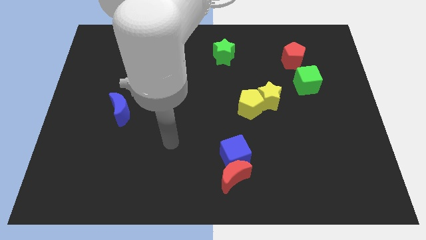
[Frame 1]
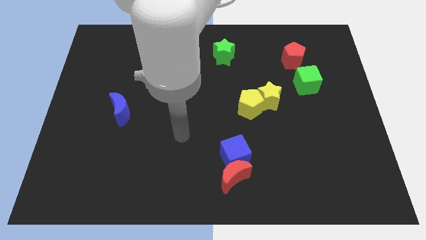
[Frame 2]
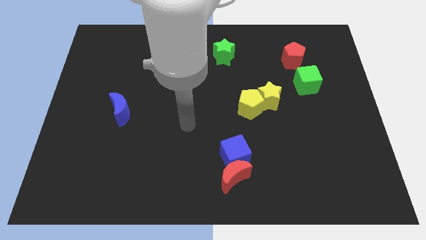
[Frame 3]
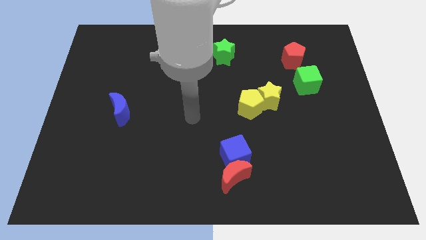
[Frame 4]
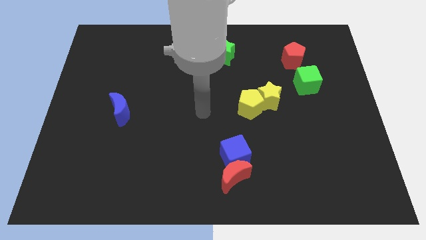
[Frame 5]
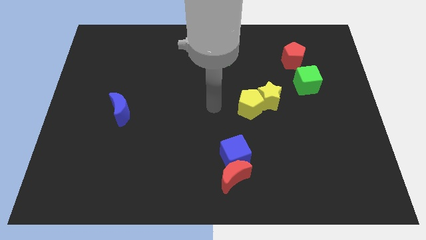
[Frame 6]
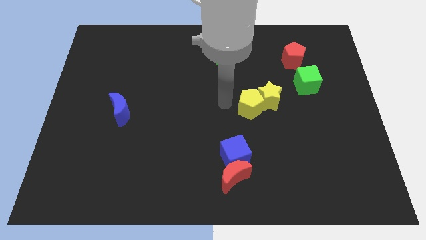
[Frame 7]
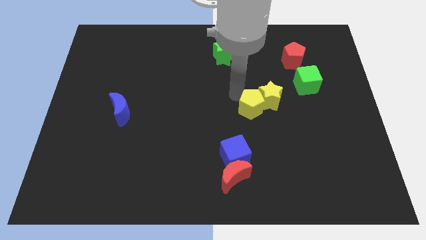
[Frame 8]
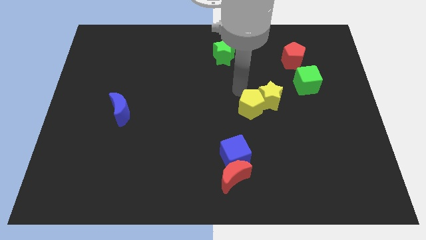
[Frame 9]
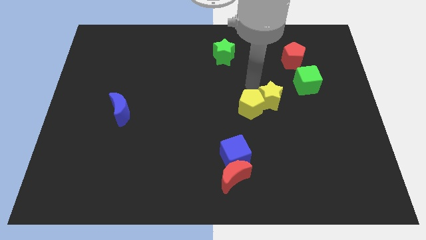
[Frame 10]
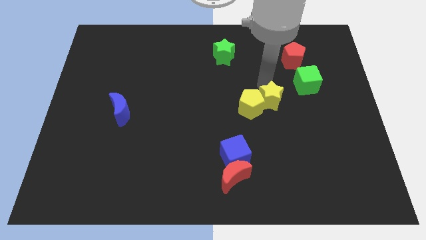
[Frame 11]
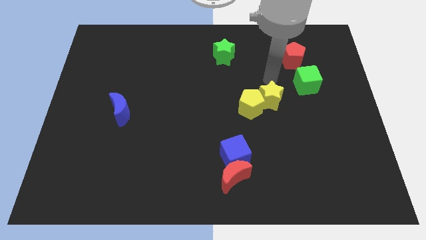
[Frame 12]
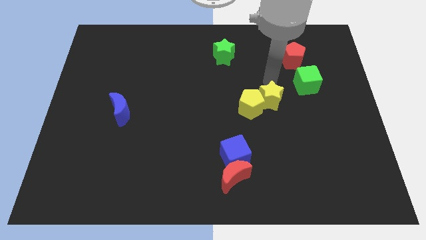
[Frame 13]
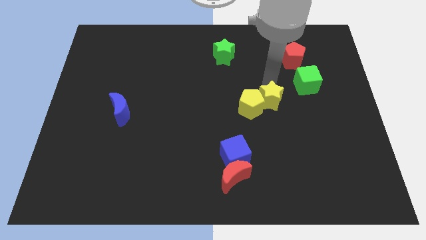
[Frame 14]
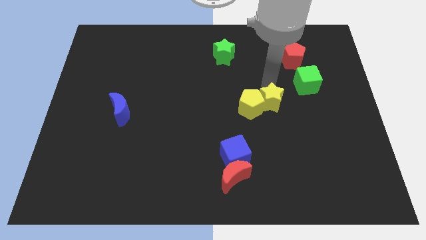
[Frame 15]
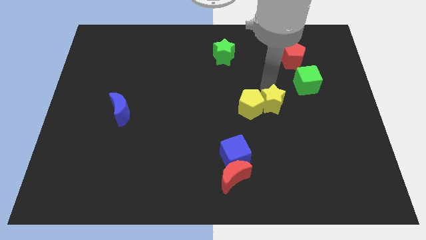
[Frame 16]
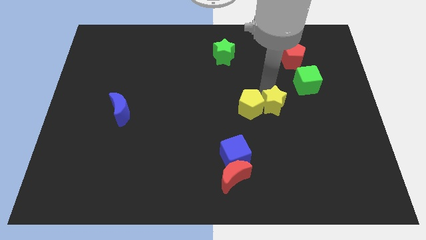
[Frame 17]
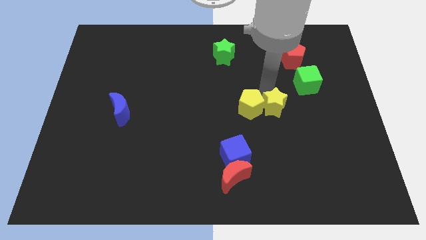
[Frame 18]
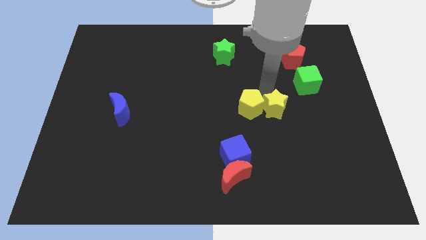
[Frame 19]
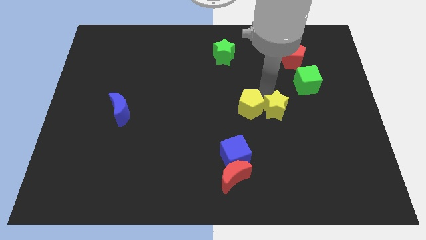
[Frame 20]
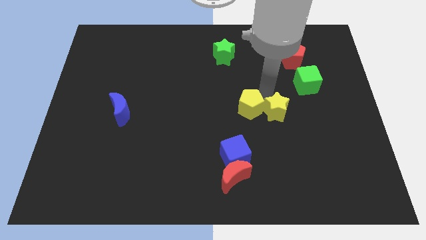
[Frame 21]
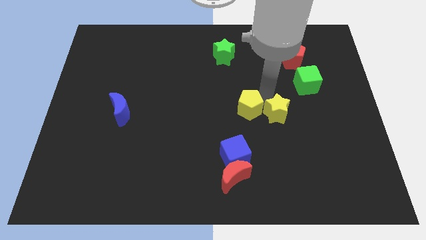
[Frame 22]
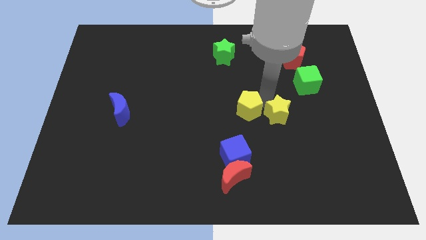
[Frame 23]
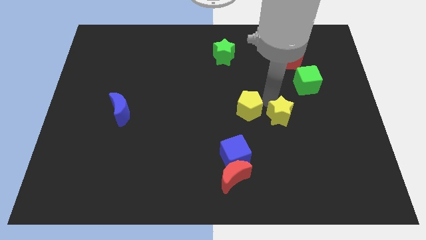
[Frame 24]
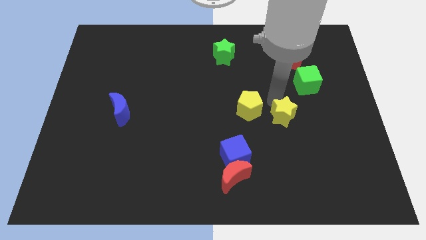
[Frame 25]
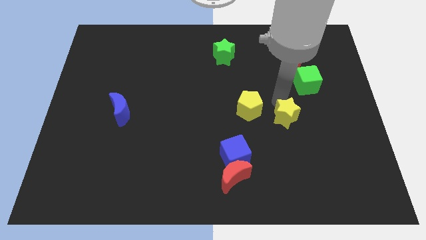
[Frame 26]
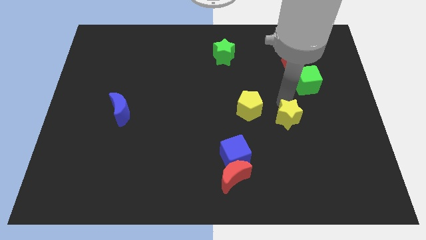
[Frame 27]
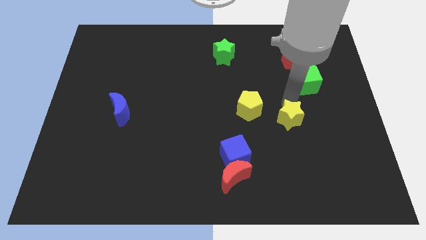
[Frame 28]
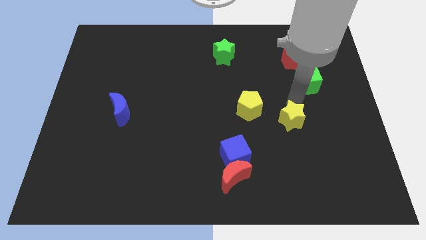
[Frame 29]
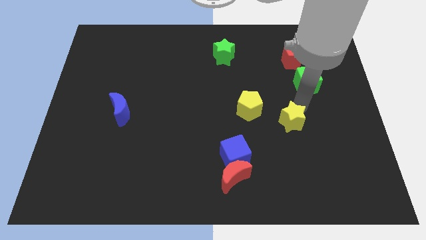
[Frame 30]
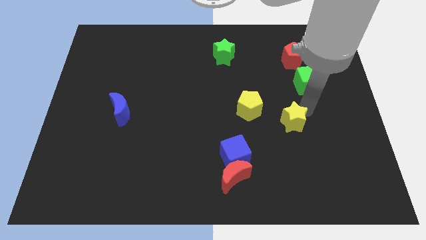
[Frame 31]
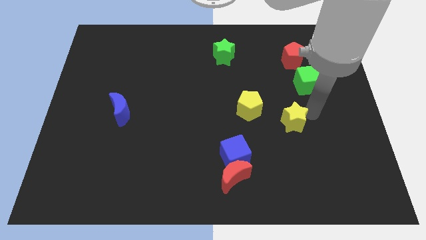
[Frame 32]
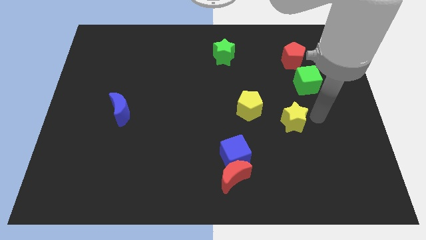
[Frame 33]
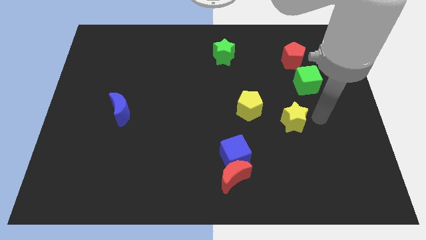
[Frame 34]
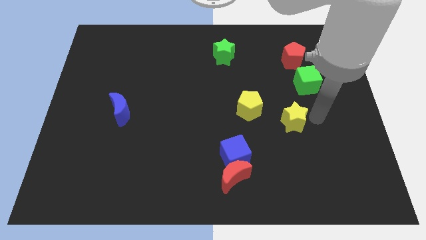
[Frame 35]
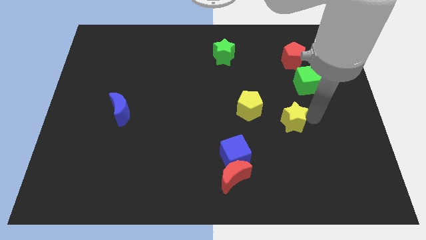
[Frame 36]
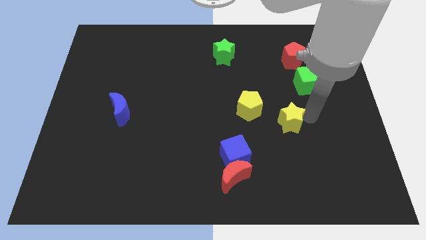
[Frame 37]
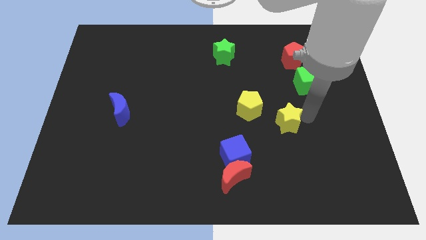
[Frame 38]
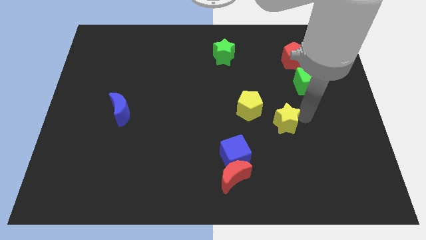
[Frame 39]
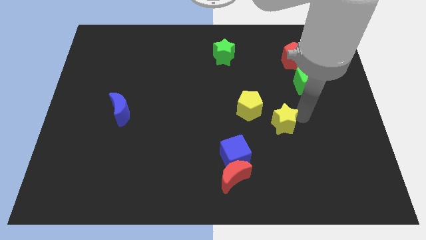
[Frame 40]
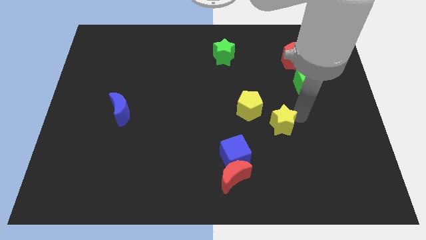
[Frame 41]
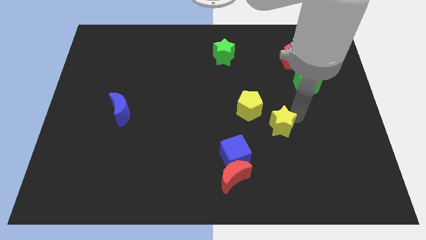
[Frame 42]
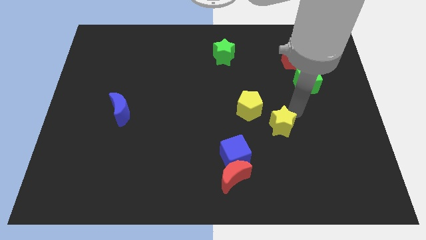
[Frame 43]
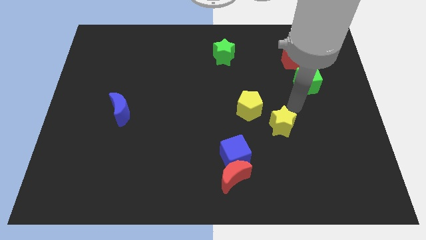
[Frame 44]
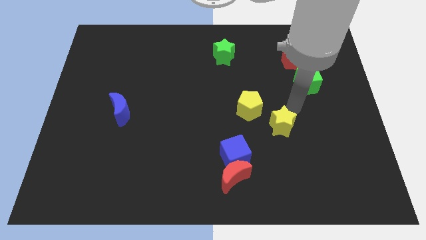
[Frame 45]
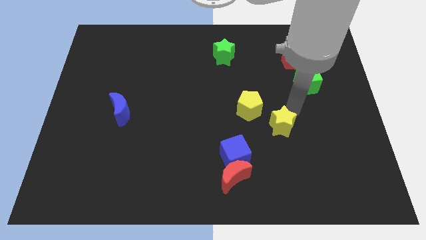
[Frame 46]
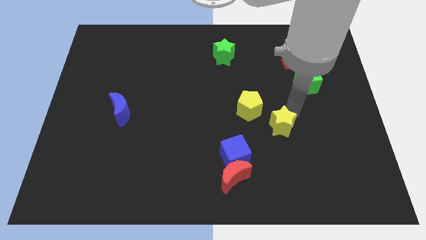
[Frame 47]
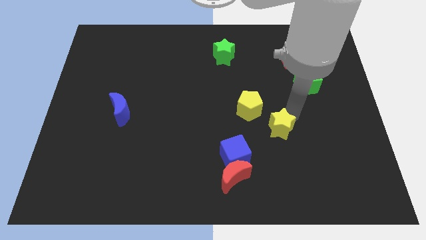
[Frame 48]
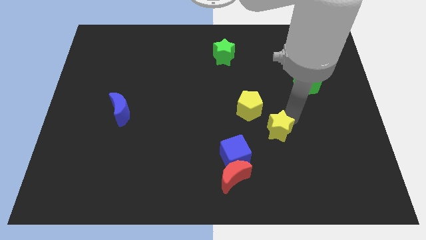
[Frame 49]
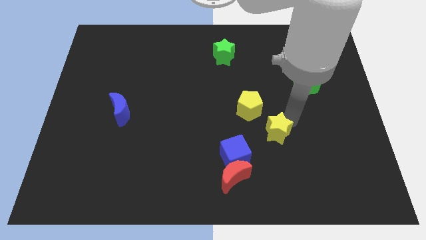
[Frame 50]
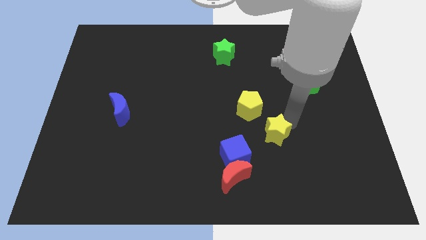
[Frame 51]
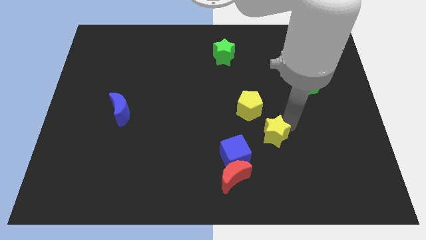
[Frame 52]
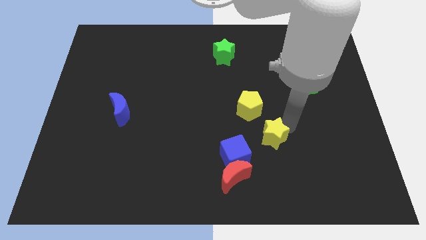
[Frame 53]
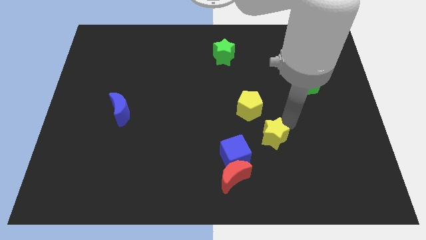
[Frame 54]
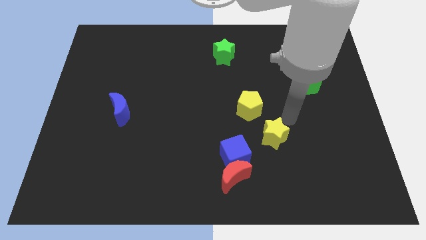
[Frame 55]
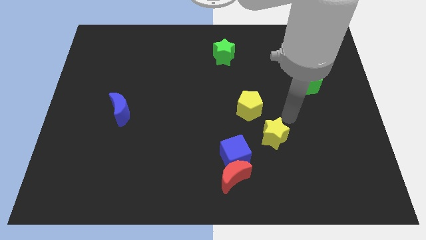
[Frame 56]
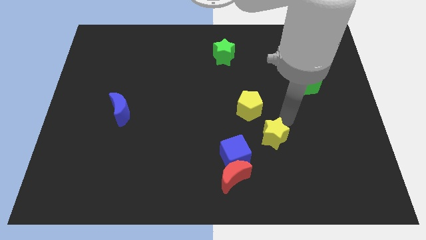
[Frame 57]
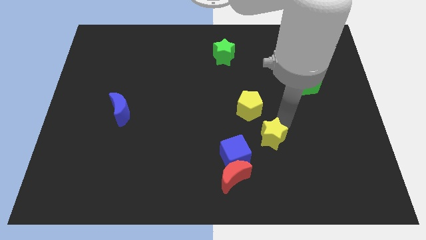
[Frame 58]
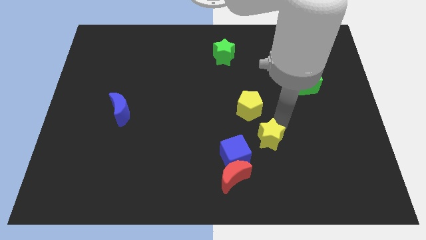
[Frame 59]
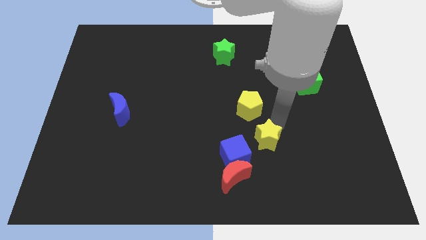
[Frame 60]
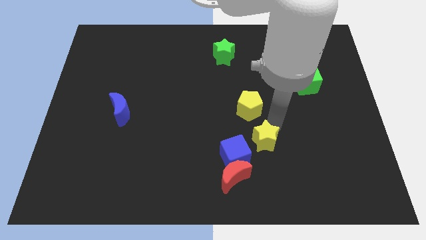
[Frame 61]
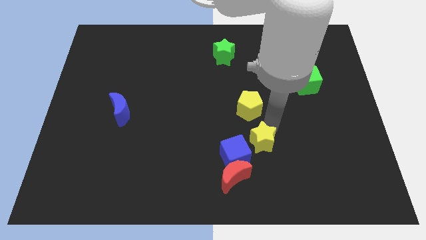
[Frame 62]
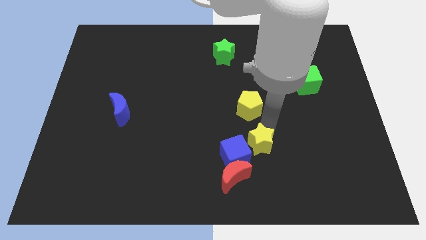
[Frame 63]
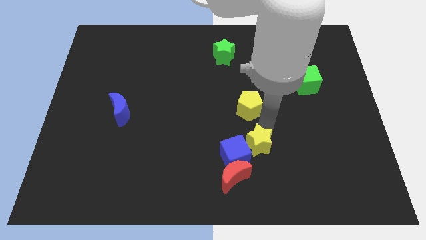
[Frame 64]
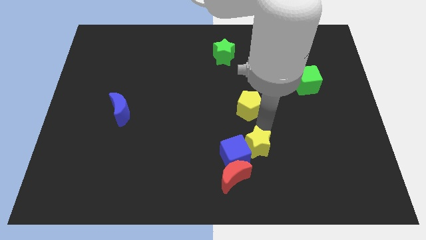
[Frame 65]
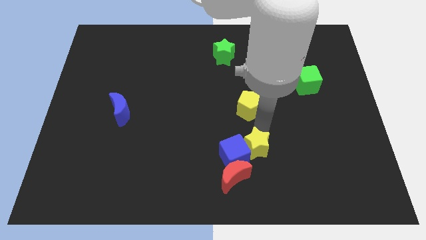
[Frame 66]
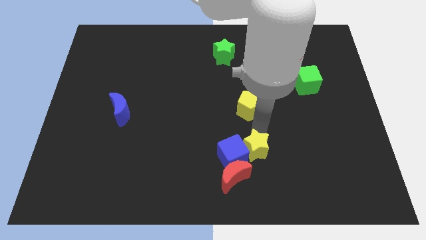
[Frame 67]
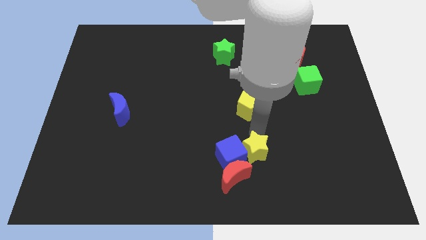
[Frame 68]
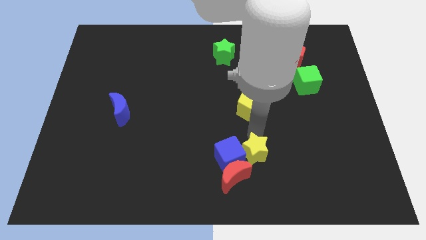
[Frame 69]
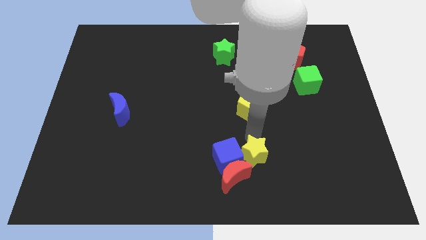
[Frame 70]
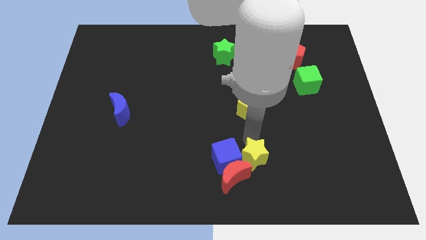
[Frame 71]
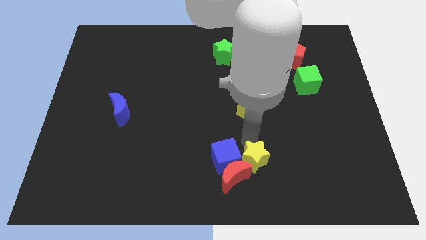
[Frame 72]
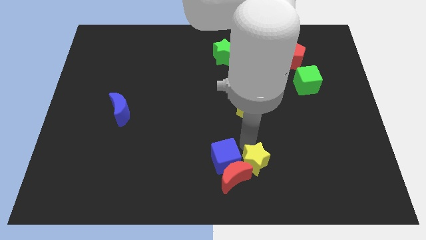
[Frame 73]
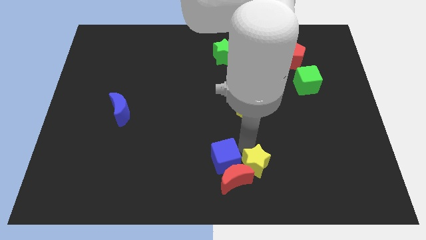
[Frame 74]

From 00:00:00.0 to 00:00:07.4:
move the yellow star to the bottom side
